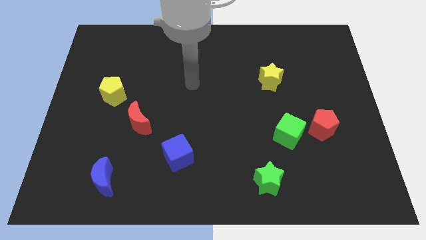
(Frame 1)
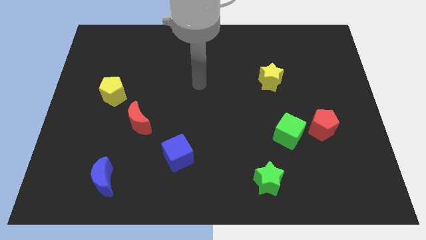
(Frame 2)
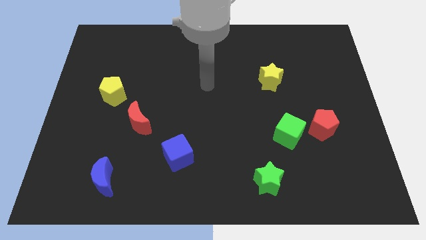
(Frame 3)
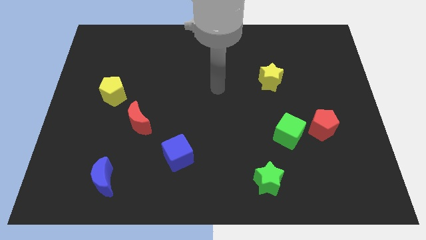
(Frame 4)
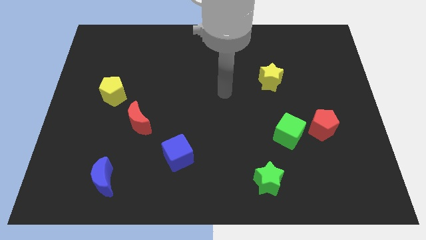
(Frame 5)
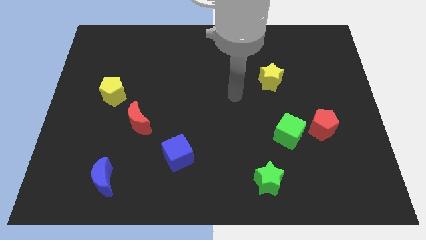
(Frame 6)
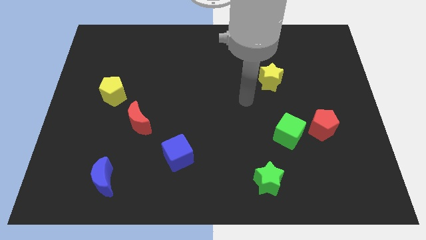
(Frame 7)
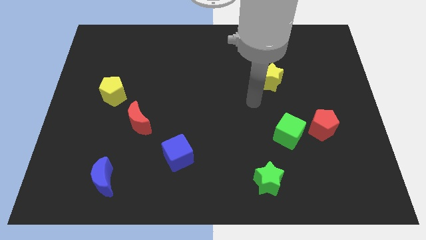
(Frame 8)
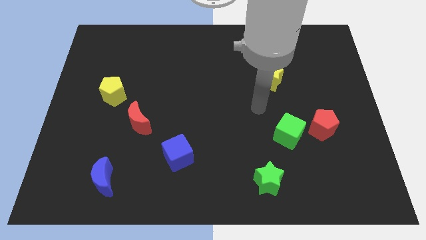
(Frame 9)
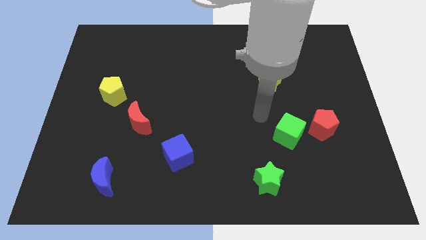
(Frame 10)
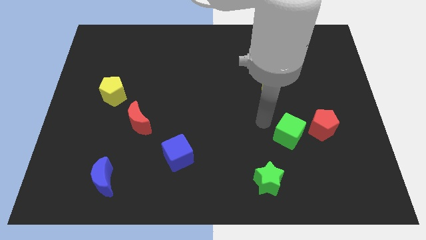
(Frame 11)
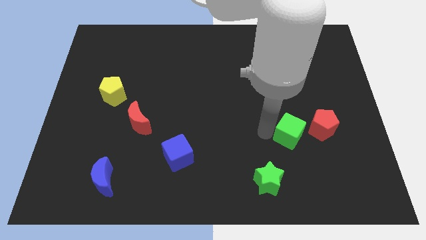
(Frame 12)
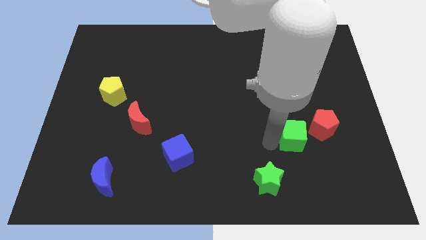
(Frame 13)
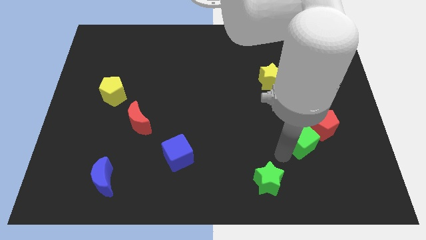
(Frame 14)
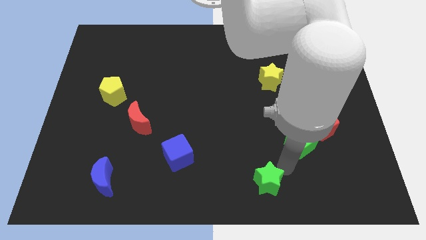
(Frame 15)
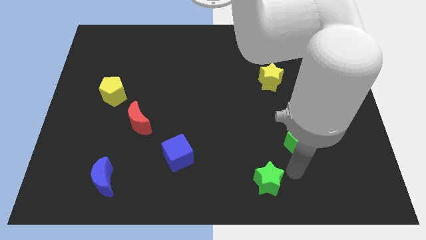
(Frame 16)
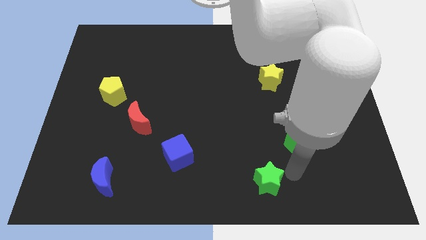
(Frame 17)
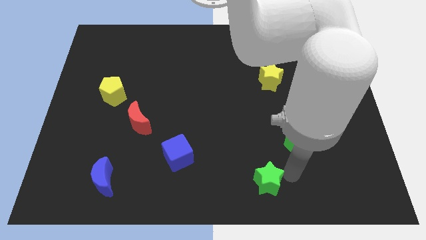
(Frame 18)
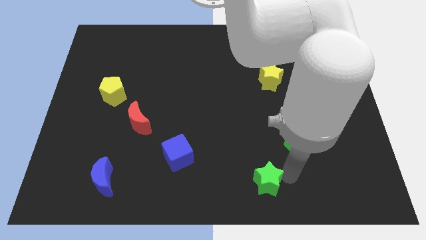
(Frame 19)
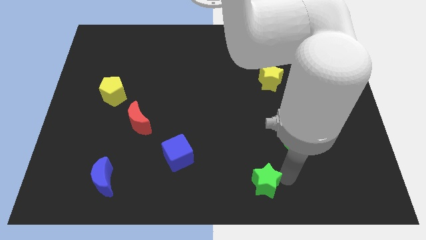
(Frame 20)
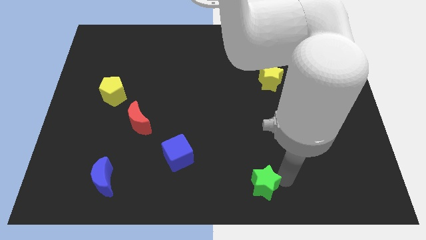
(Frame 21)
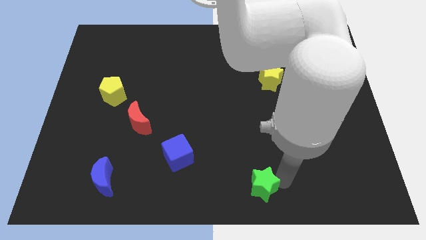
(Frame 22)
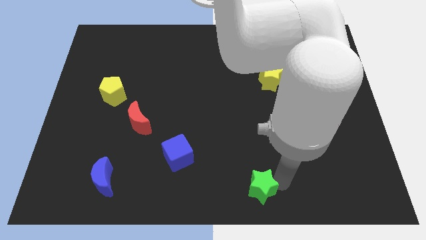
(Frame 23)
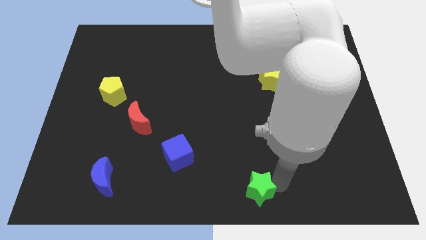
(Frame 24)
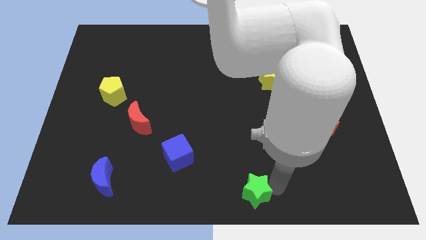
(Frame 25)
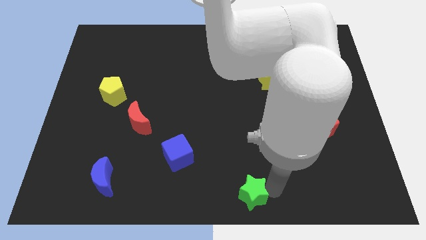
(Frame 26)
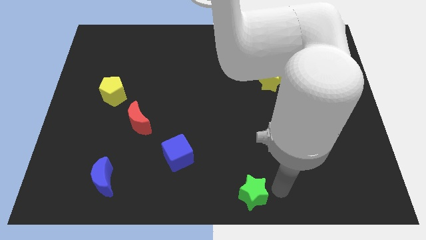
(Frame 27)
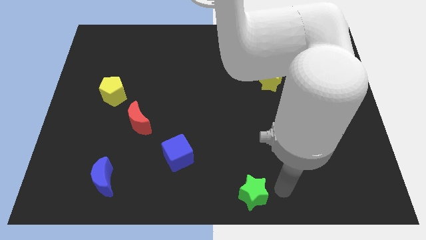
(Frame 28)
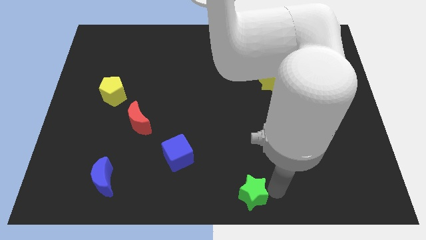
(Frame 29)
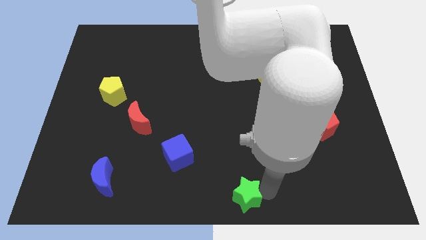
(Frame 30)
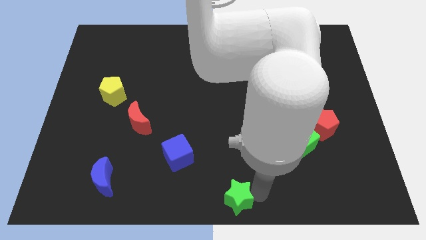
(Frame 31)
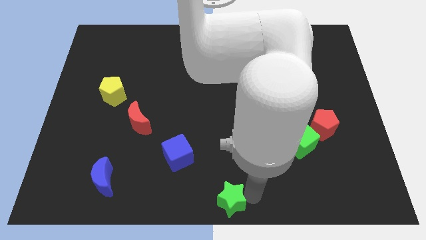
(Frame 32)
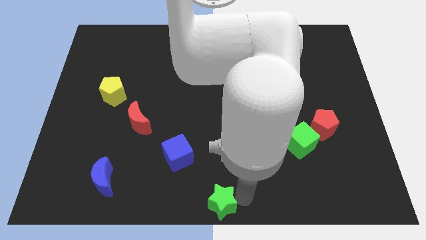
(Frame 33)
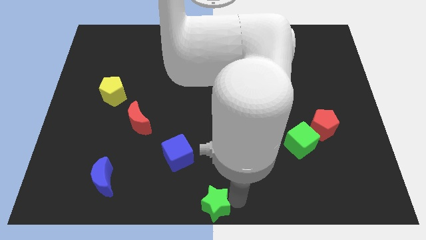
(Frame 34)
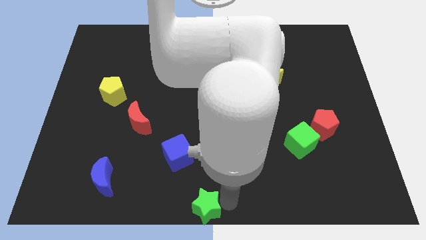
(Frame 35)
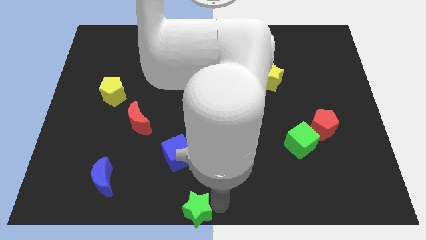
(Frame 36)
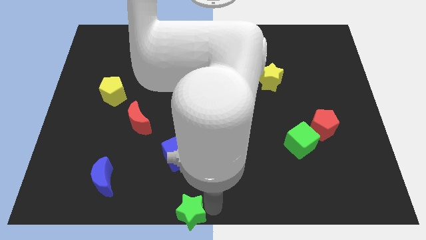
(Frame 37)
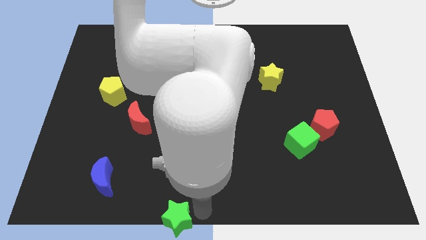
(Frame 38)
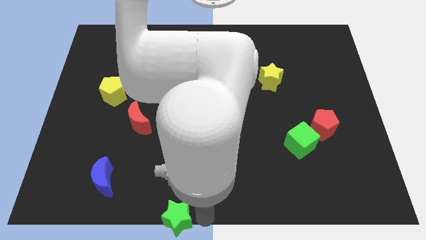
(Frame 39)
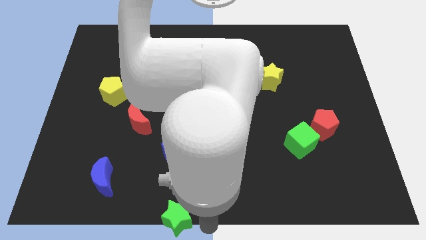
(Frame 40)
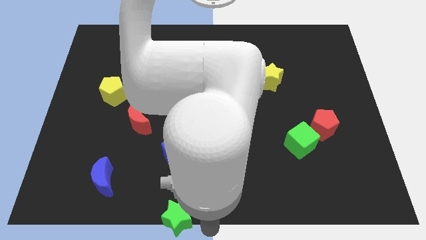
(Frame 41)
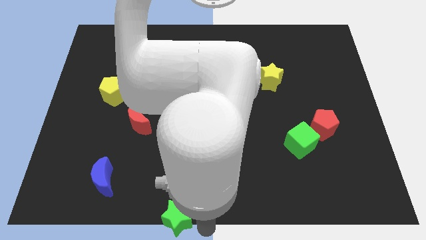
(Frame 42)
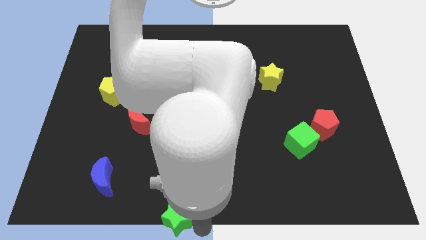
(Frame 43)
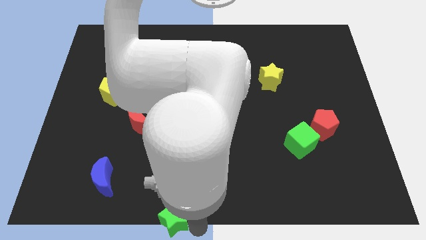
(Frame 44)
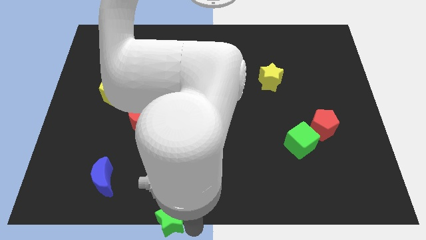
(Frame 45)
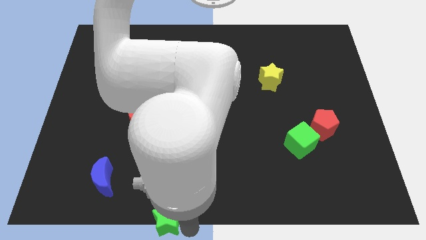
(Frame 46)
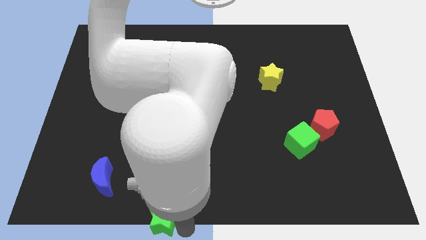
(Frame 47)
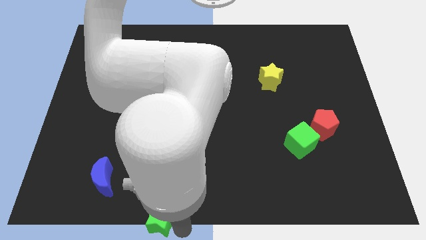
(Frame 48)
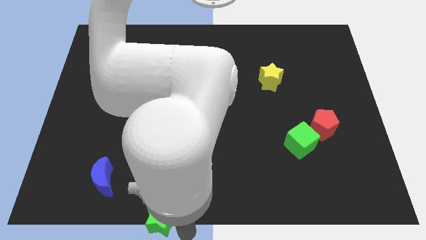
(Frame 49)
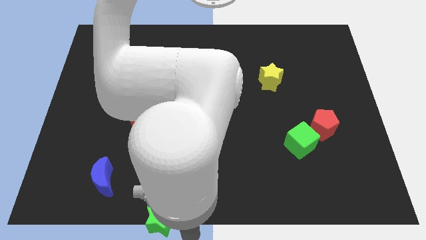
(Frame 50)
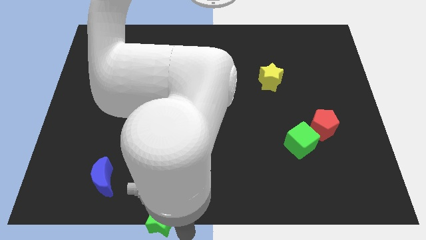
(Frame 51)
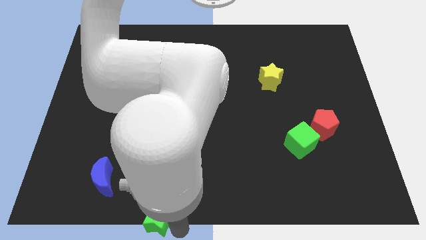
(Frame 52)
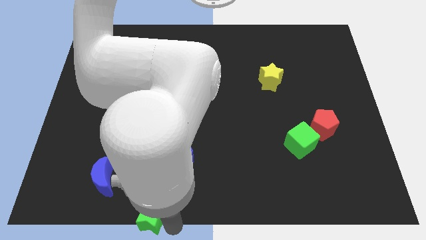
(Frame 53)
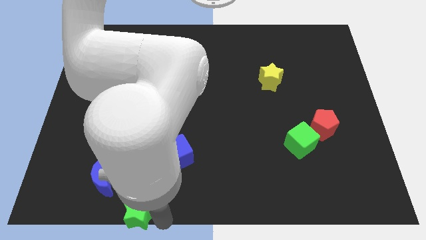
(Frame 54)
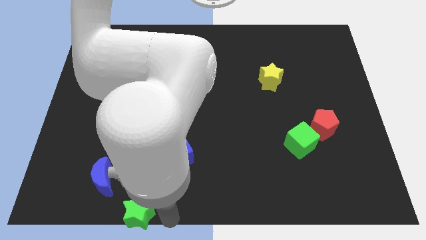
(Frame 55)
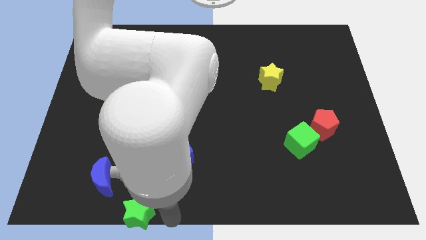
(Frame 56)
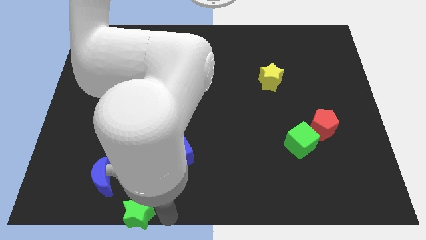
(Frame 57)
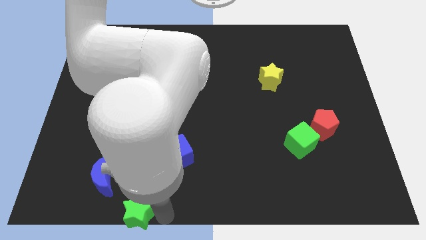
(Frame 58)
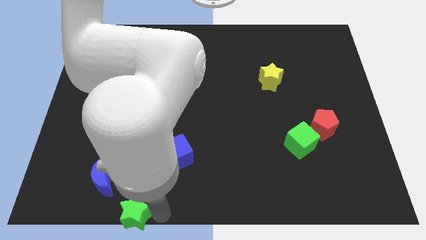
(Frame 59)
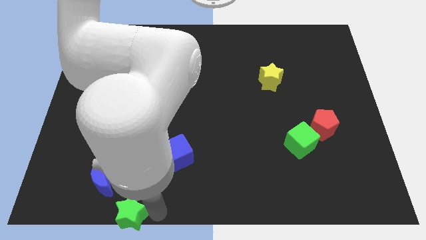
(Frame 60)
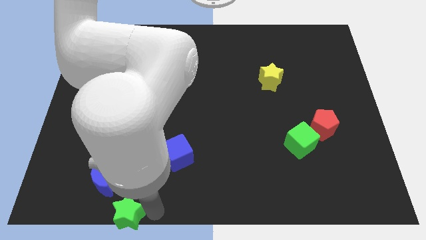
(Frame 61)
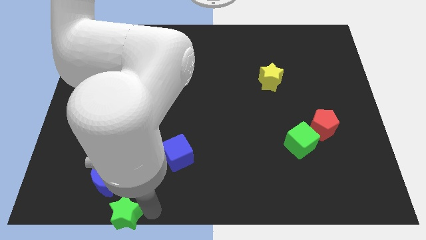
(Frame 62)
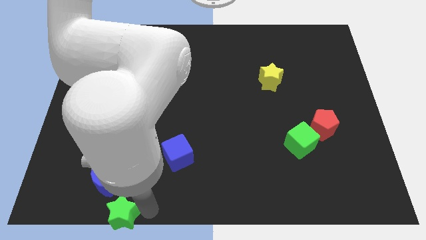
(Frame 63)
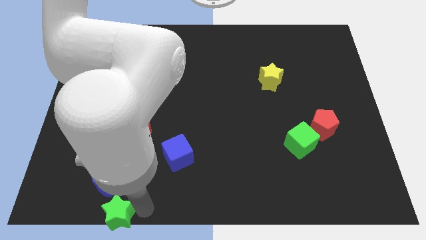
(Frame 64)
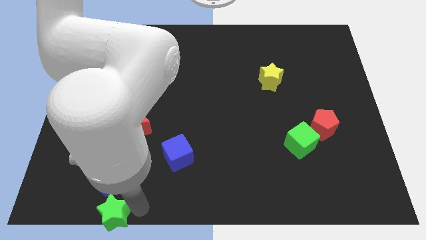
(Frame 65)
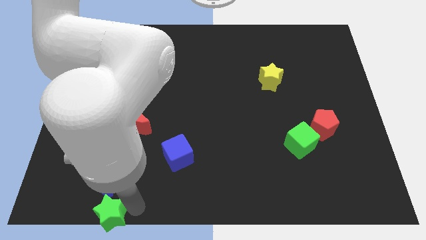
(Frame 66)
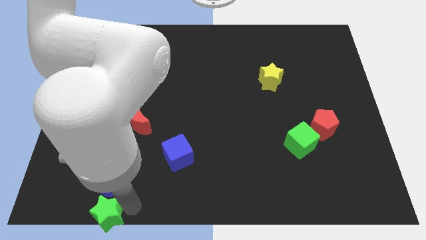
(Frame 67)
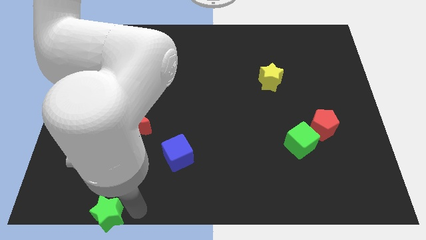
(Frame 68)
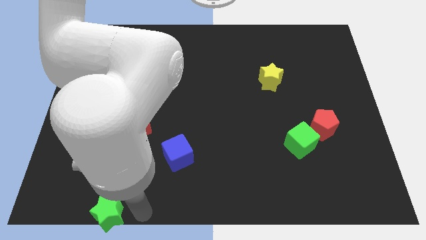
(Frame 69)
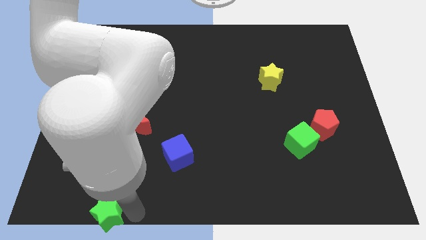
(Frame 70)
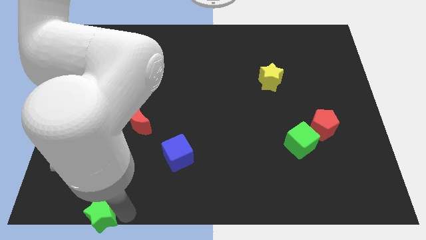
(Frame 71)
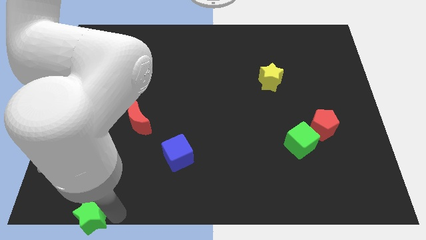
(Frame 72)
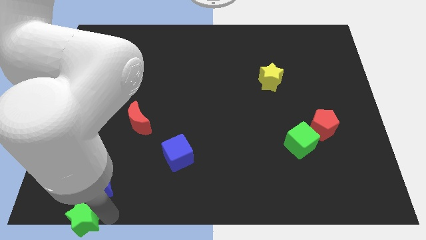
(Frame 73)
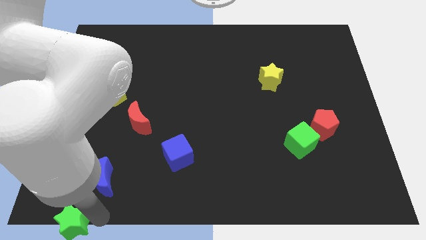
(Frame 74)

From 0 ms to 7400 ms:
slide the green star to the bottom left
